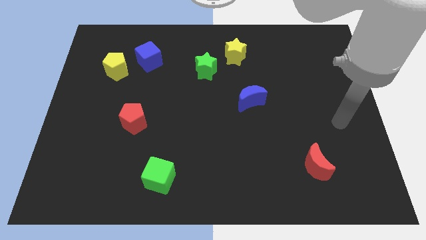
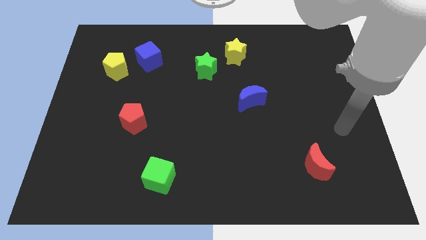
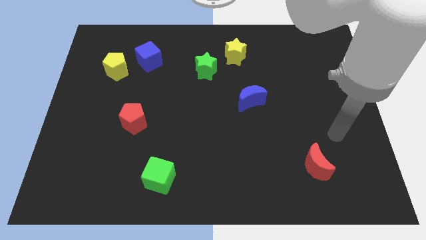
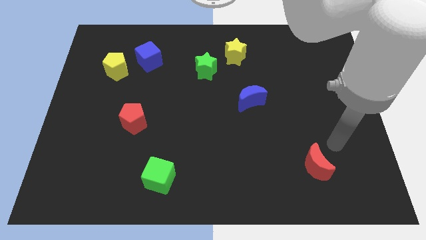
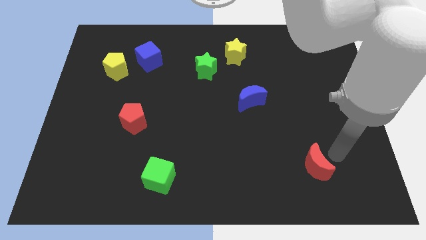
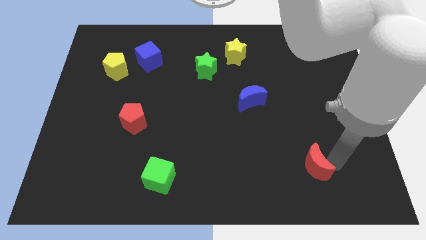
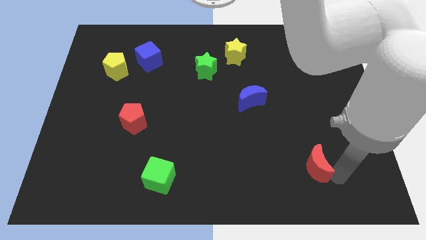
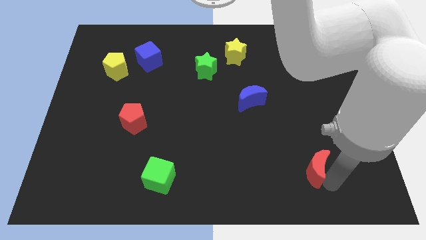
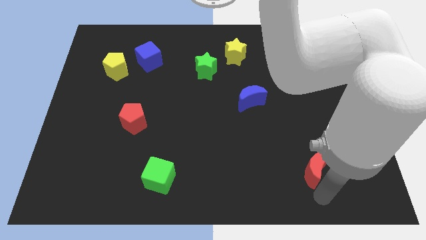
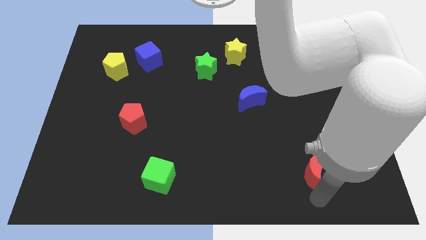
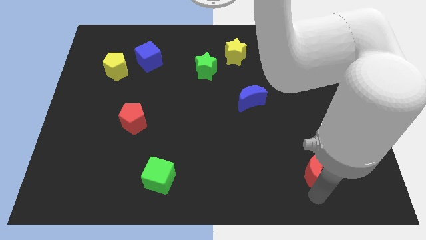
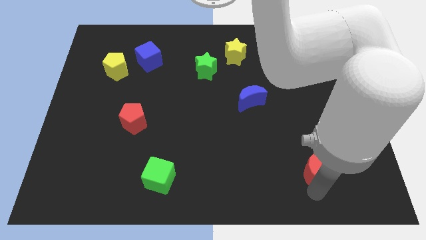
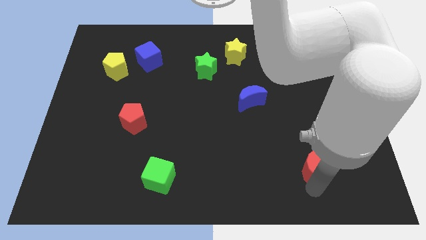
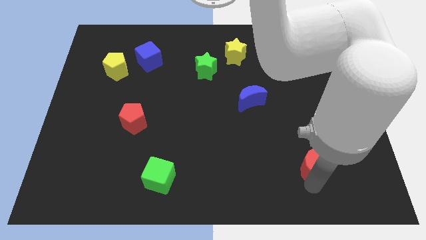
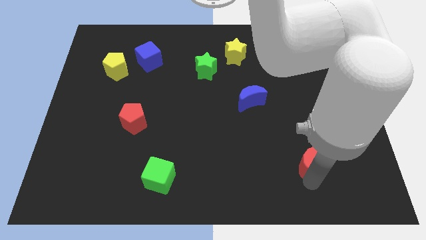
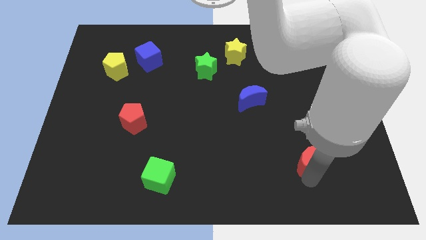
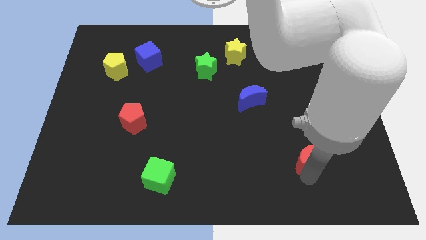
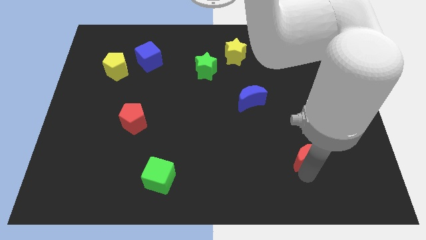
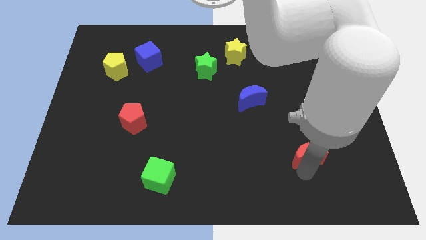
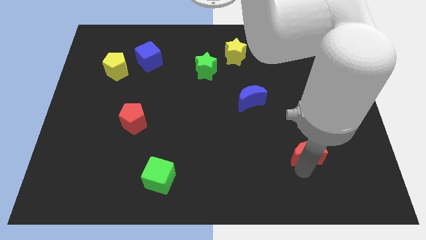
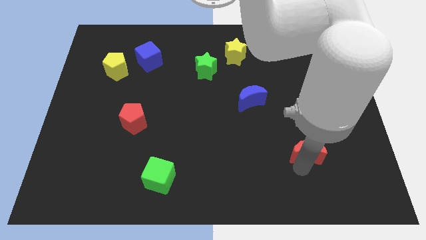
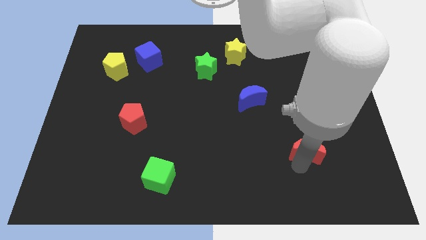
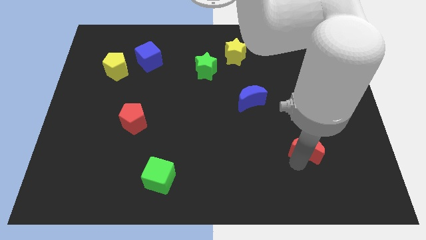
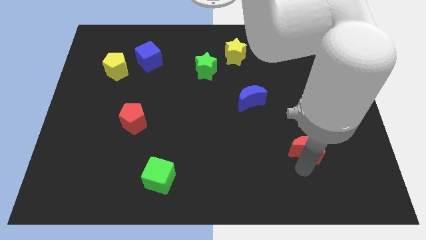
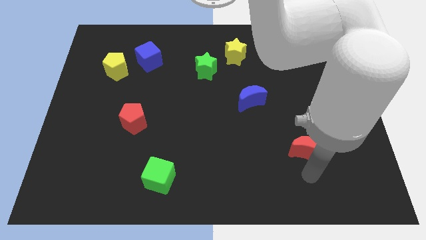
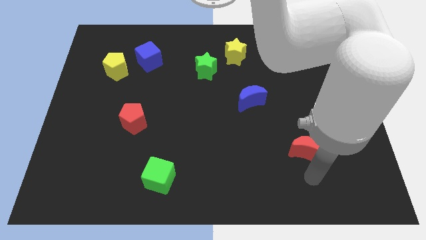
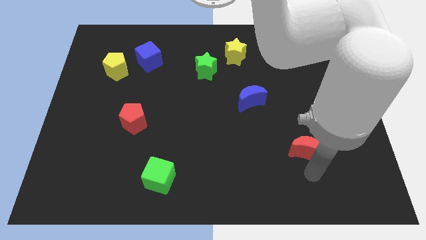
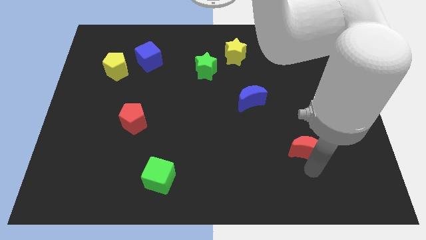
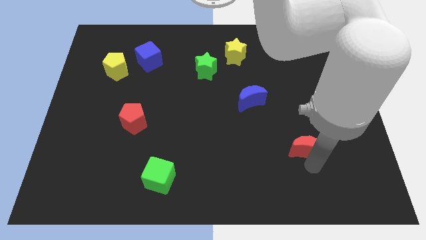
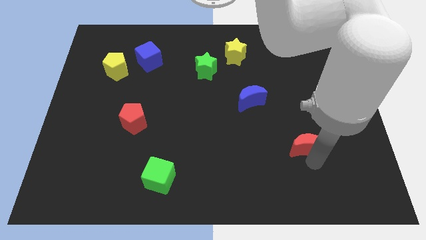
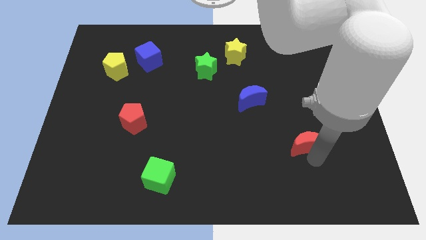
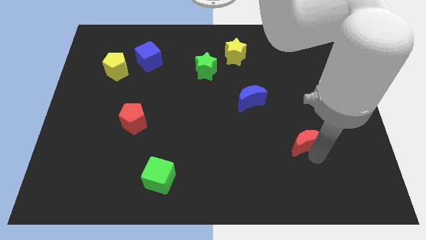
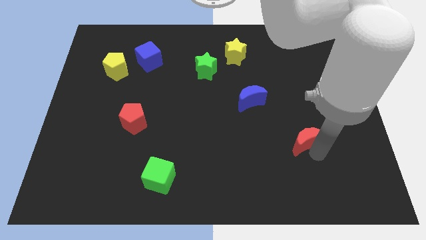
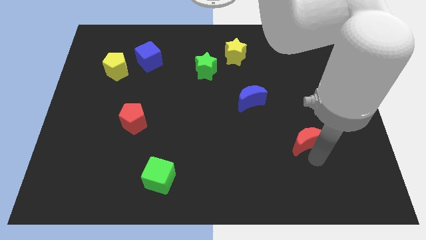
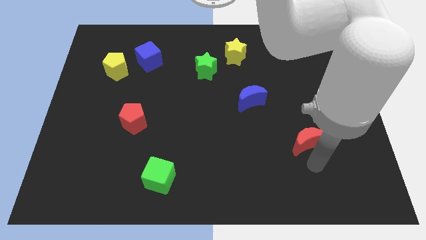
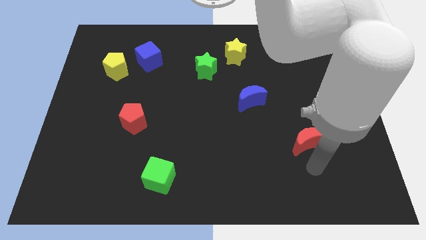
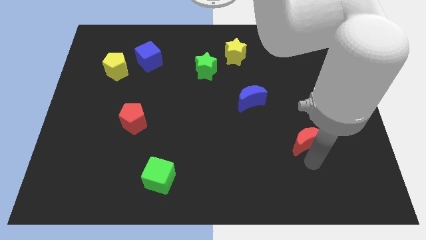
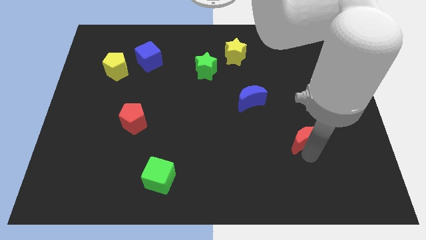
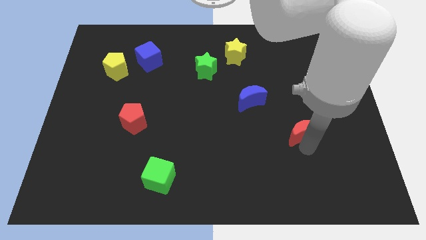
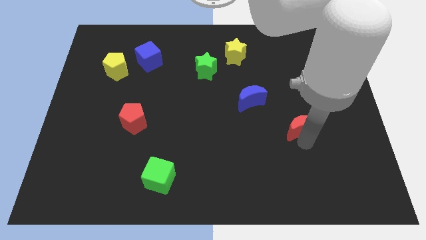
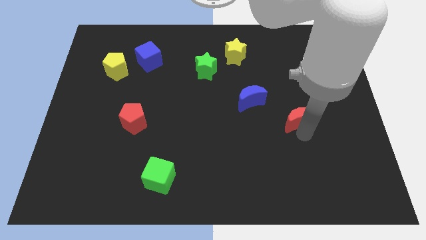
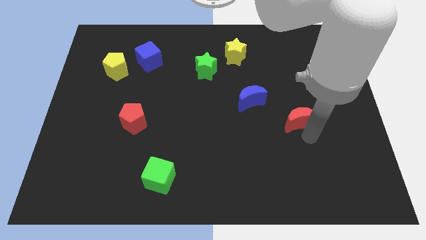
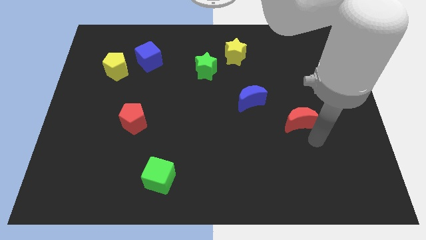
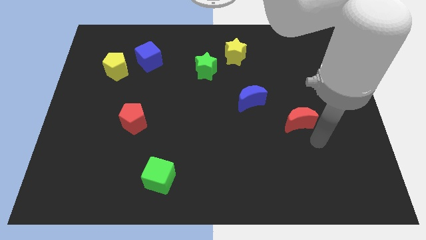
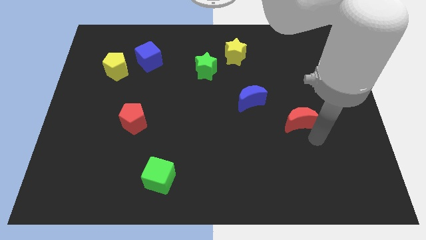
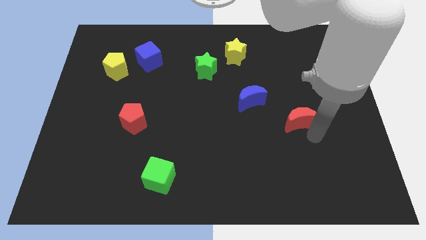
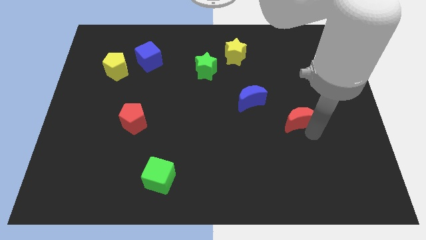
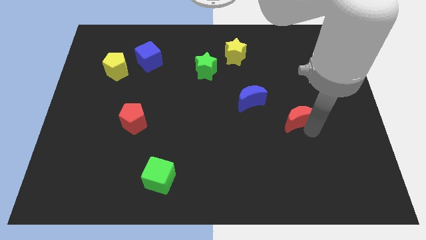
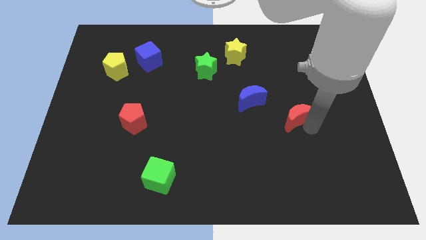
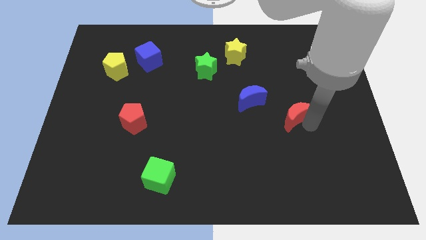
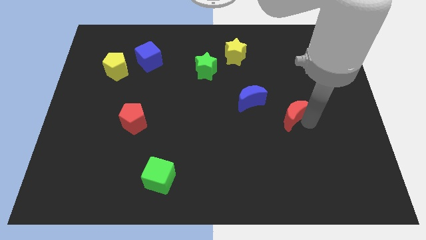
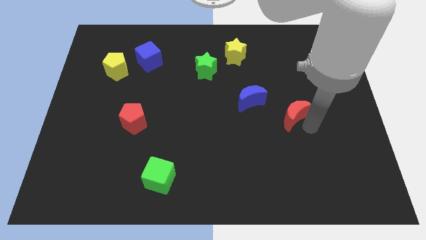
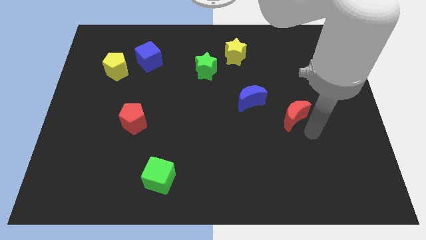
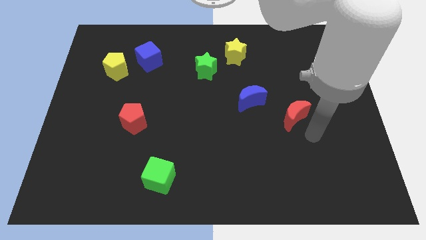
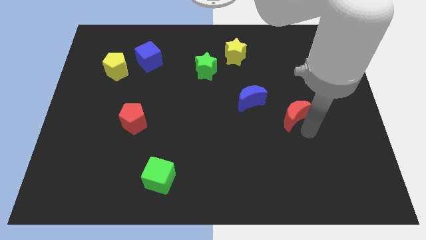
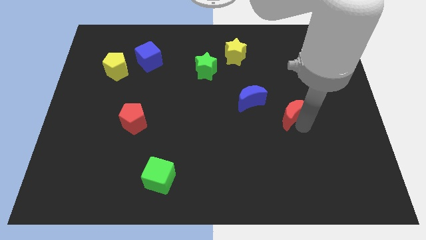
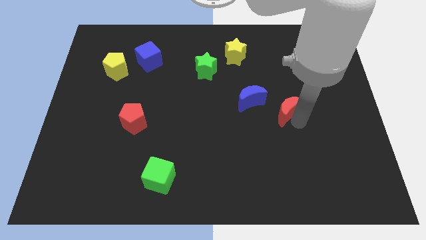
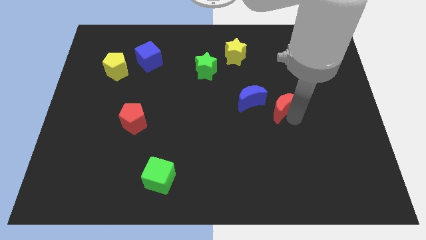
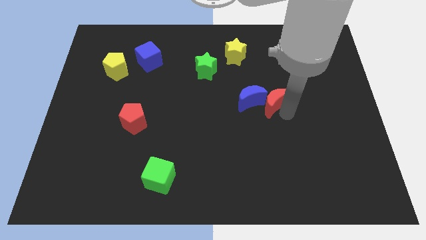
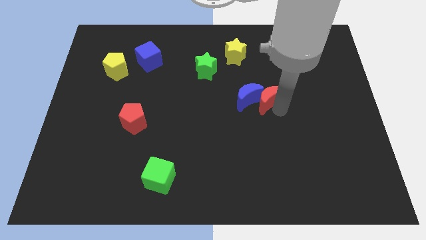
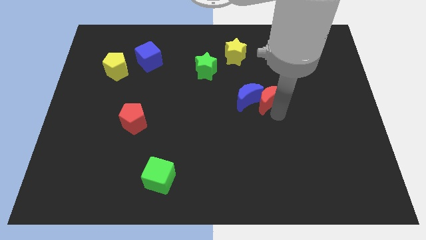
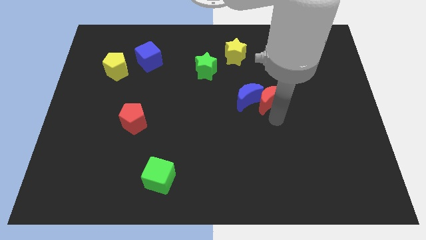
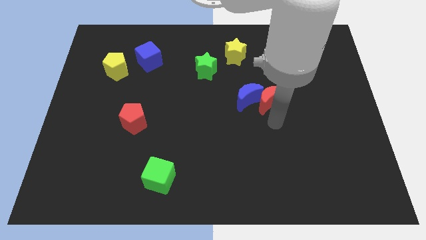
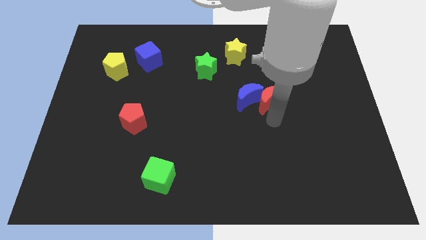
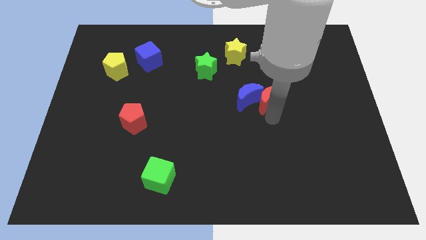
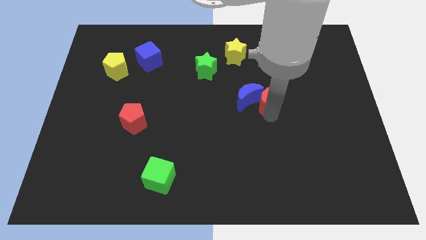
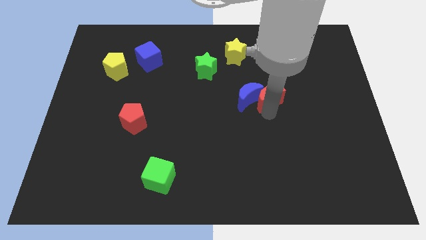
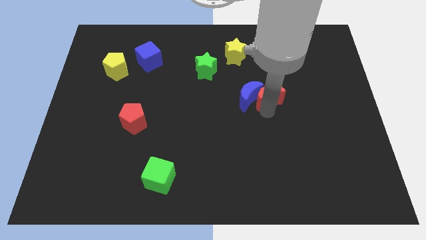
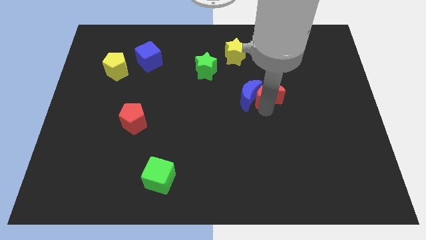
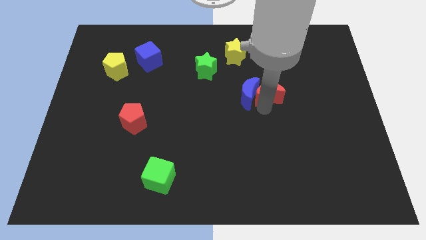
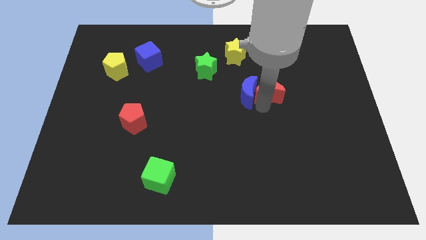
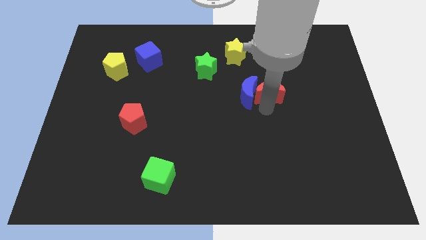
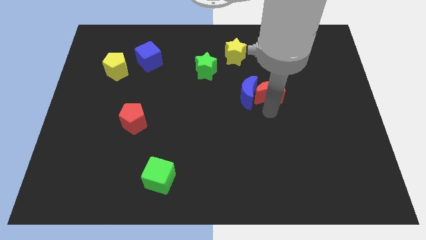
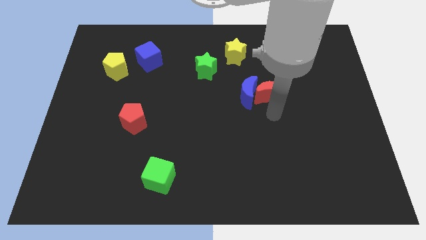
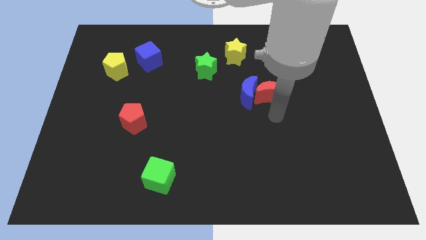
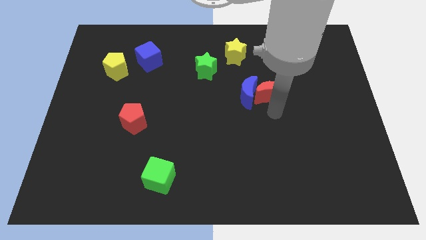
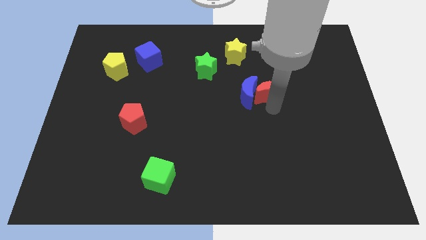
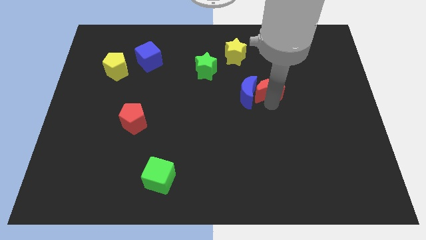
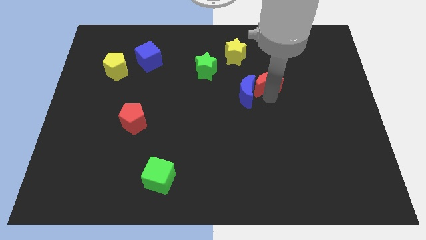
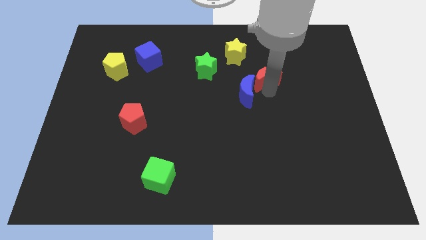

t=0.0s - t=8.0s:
move the red moon to the bottom right side of the yellow star
